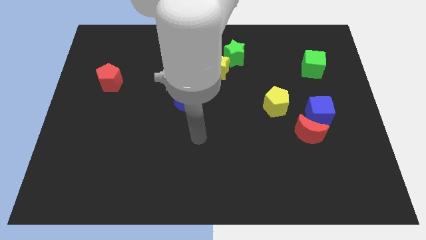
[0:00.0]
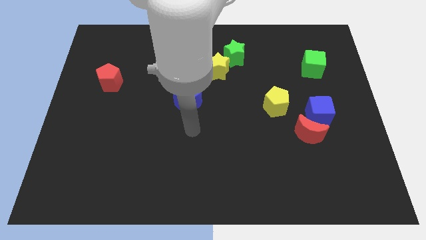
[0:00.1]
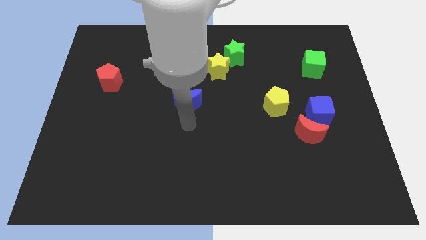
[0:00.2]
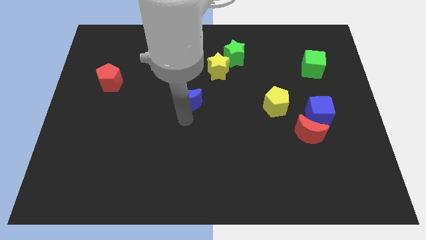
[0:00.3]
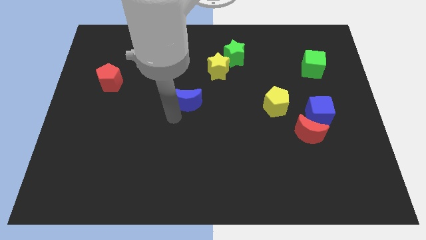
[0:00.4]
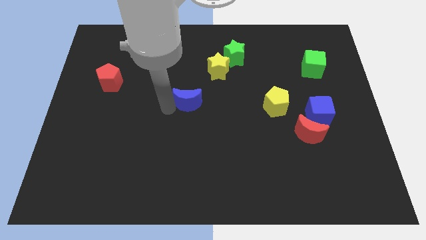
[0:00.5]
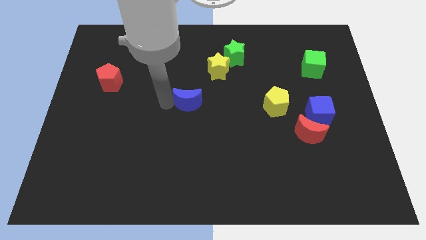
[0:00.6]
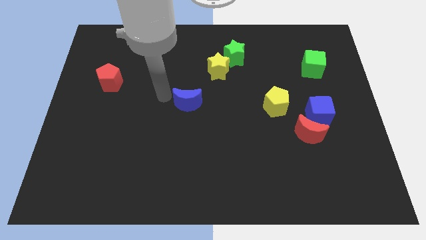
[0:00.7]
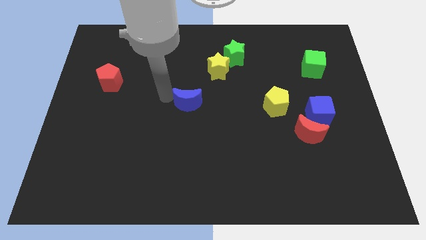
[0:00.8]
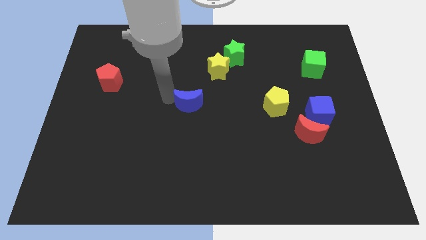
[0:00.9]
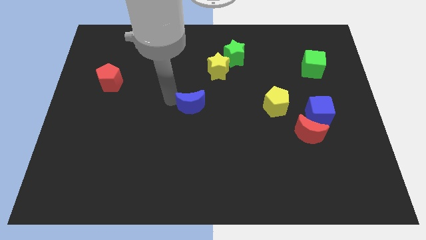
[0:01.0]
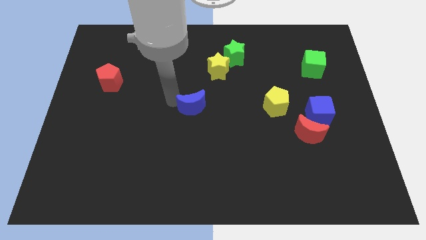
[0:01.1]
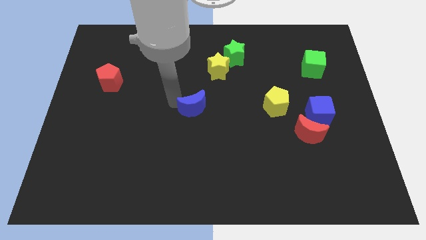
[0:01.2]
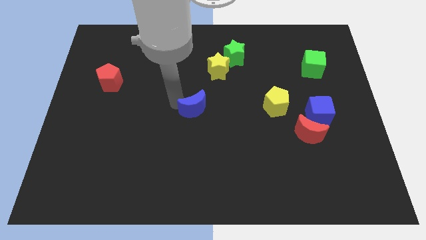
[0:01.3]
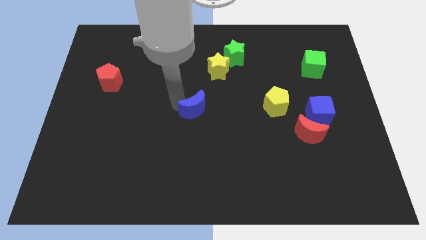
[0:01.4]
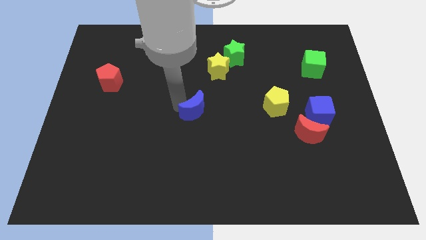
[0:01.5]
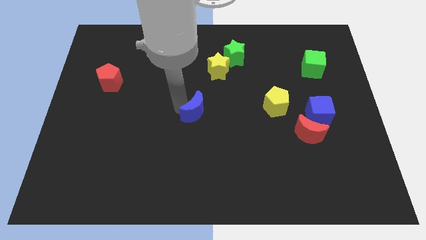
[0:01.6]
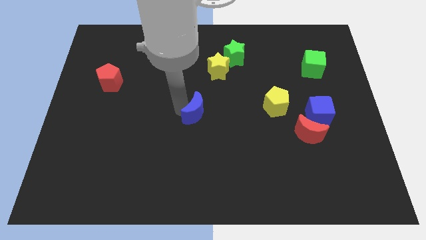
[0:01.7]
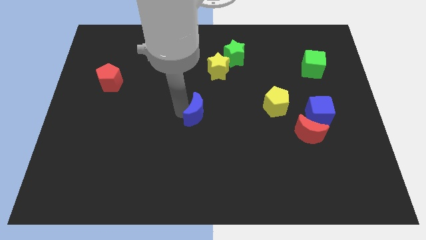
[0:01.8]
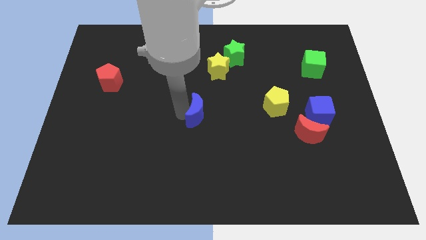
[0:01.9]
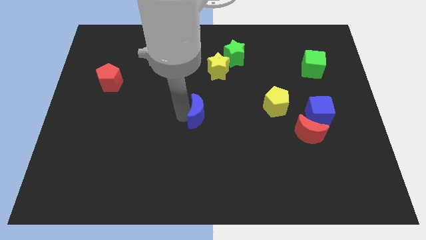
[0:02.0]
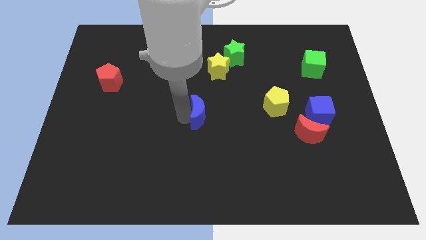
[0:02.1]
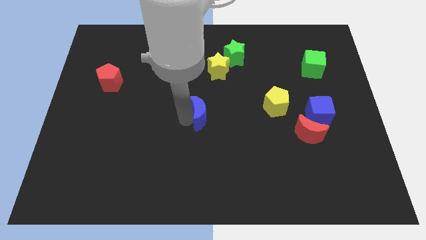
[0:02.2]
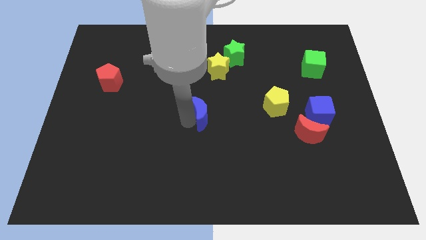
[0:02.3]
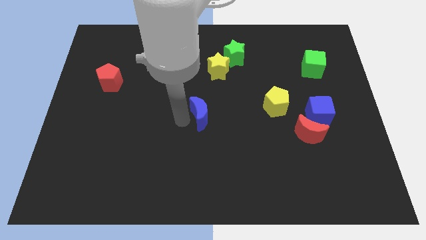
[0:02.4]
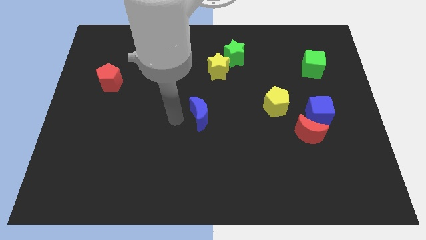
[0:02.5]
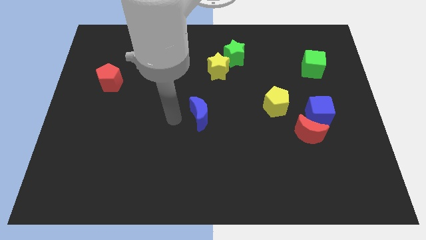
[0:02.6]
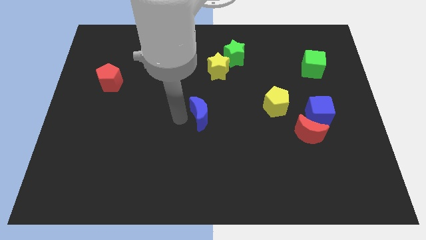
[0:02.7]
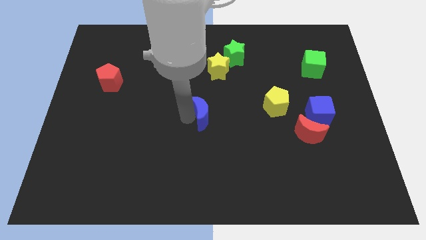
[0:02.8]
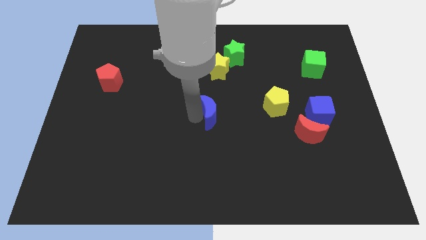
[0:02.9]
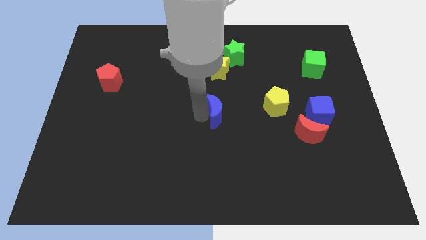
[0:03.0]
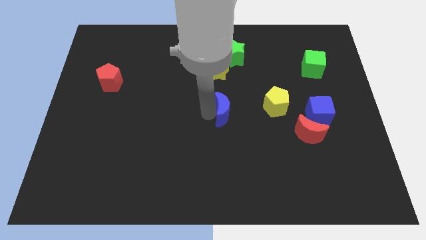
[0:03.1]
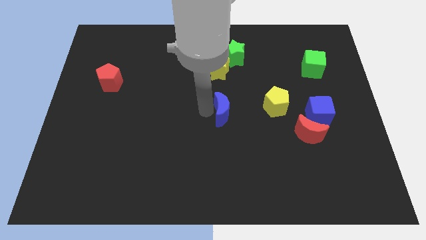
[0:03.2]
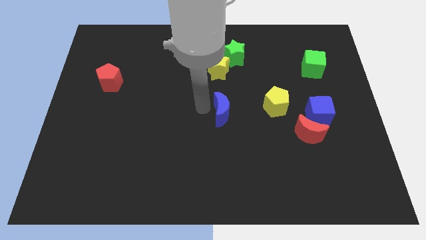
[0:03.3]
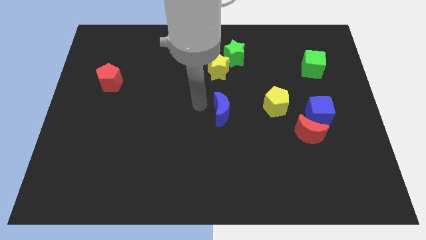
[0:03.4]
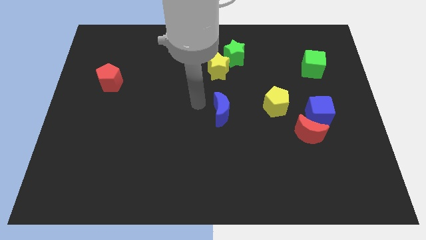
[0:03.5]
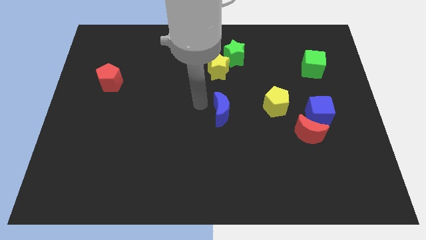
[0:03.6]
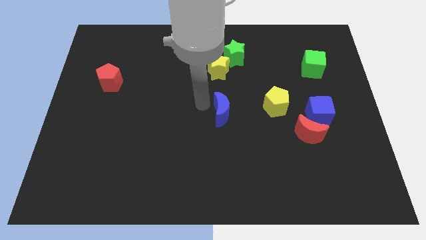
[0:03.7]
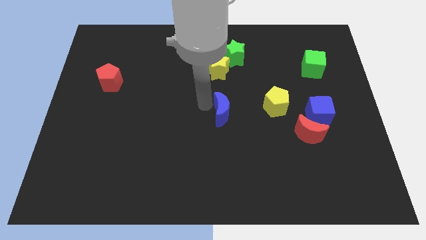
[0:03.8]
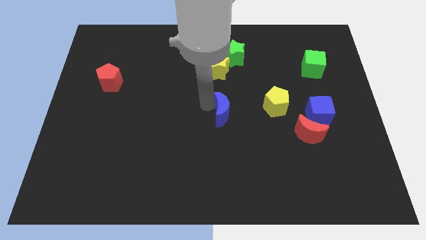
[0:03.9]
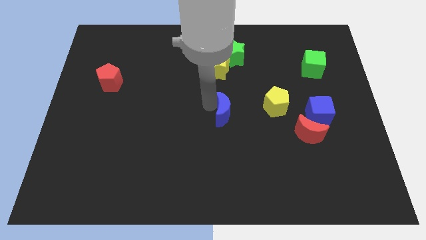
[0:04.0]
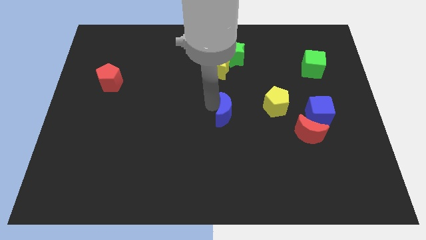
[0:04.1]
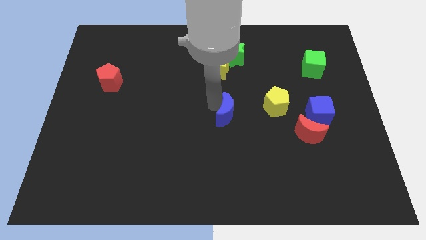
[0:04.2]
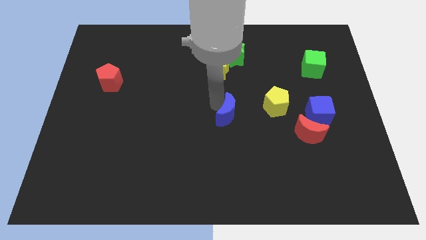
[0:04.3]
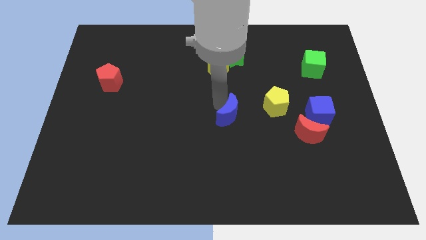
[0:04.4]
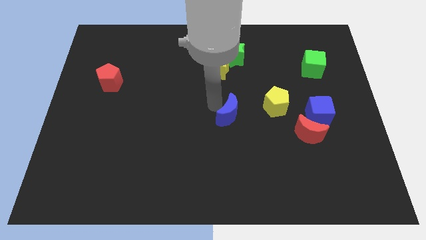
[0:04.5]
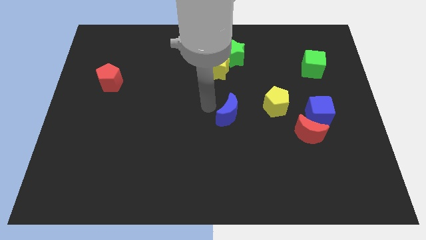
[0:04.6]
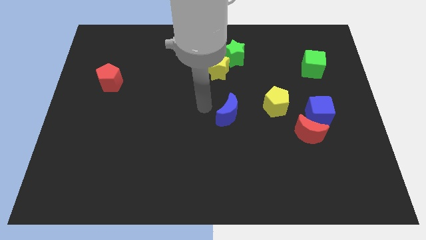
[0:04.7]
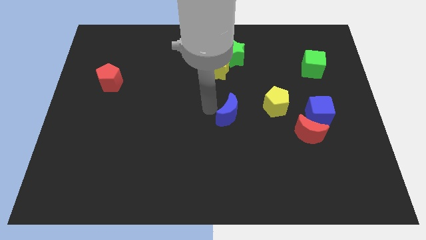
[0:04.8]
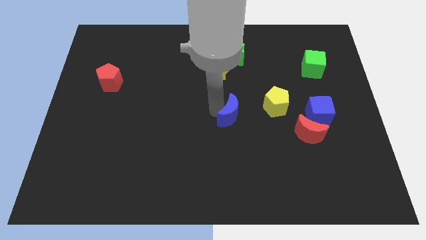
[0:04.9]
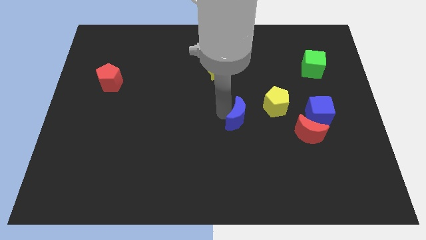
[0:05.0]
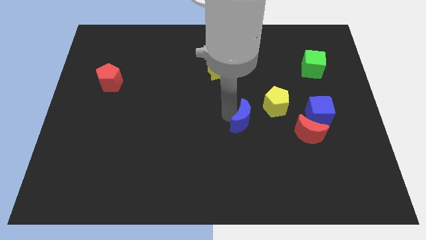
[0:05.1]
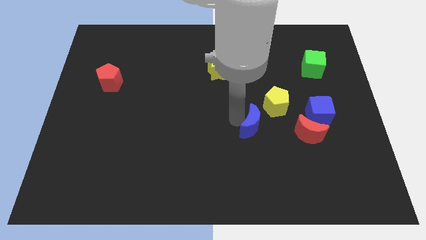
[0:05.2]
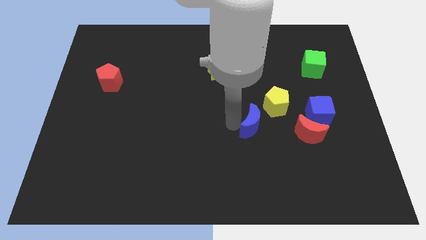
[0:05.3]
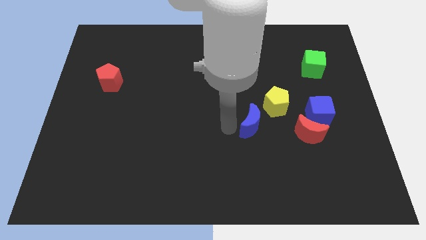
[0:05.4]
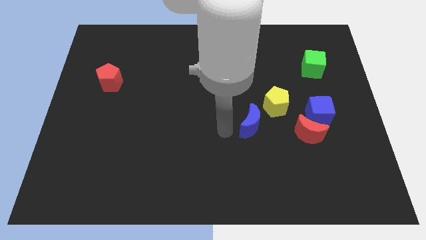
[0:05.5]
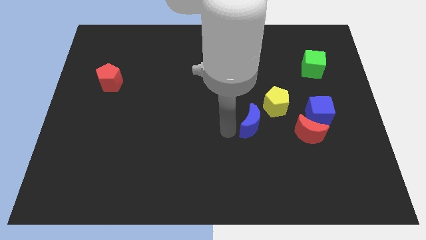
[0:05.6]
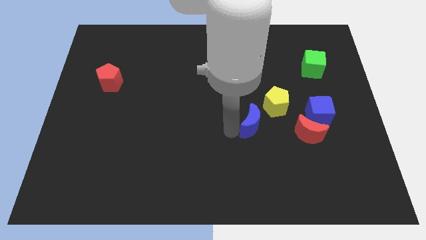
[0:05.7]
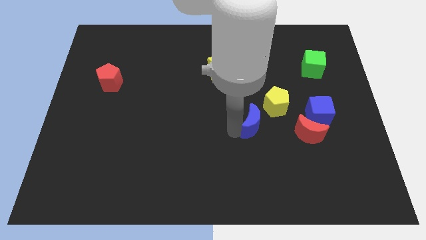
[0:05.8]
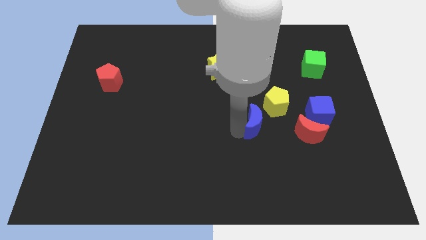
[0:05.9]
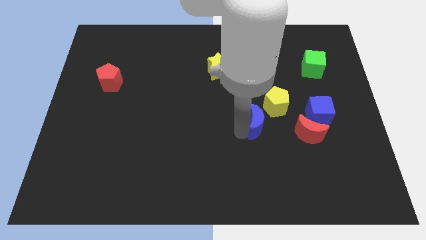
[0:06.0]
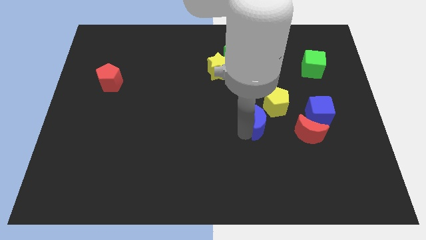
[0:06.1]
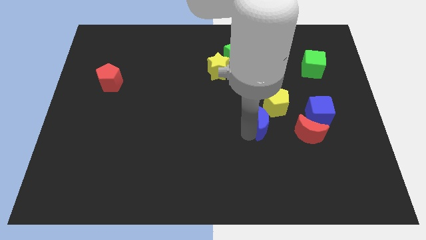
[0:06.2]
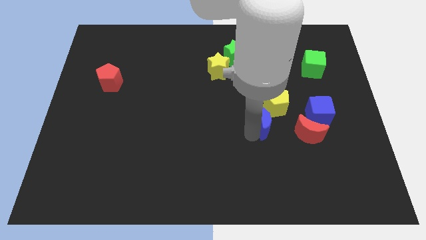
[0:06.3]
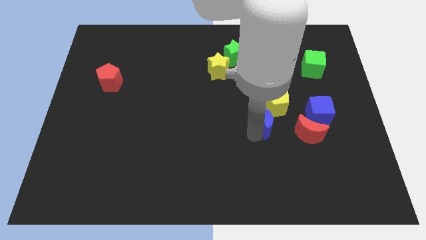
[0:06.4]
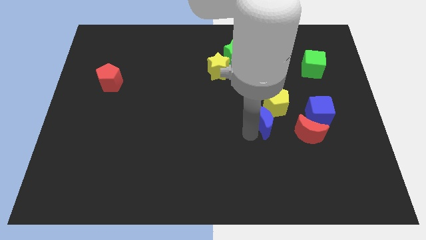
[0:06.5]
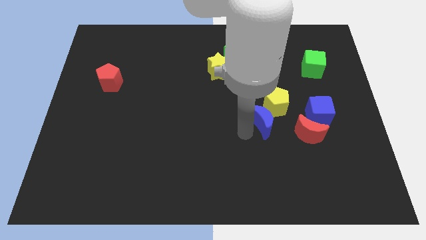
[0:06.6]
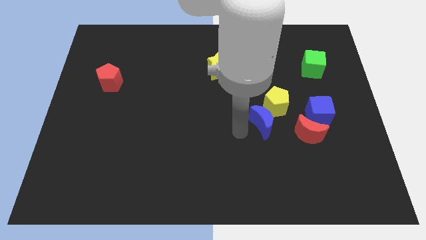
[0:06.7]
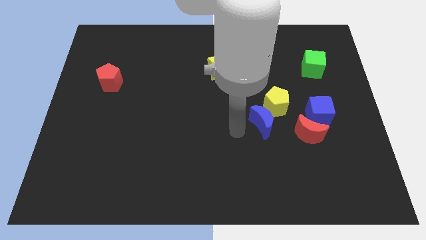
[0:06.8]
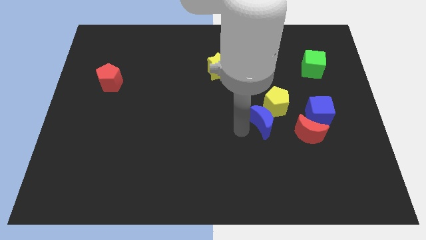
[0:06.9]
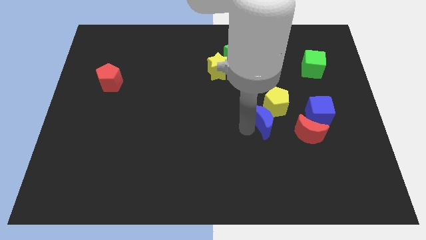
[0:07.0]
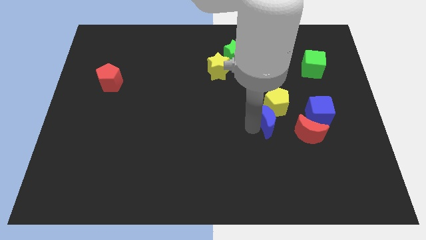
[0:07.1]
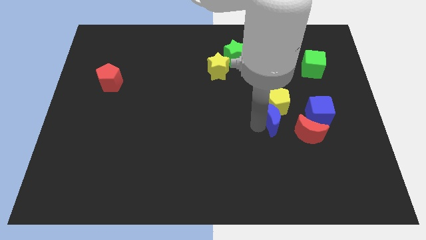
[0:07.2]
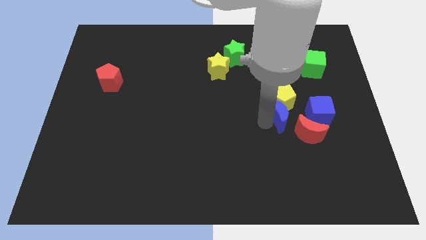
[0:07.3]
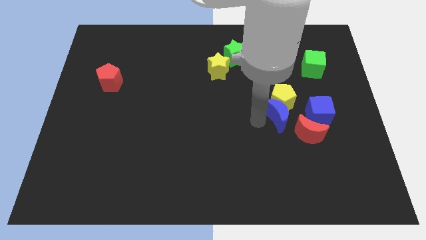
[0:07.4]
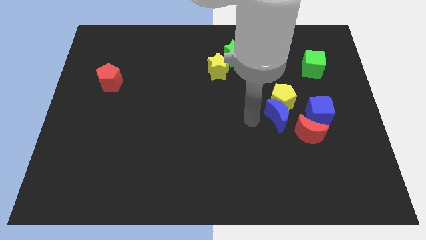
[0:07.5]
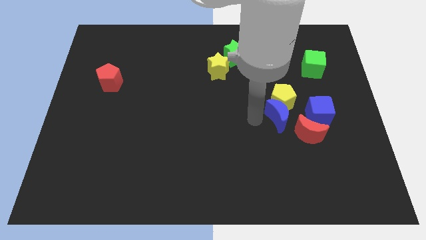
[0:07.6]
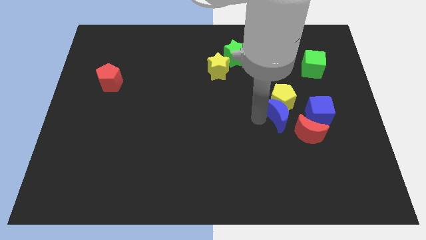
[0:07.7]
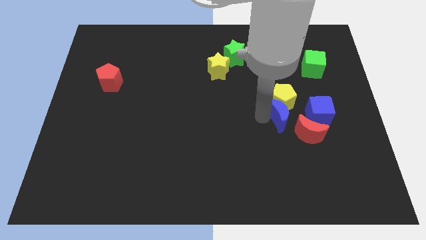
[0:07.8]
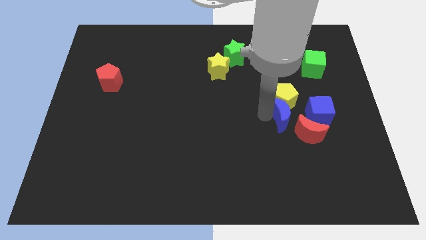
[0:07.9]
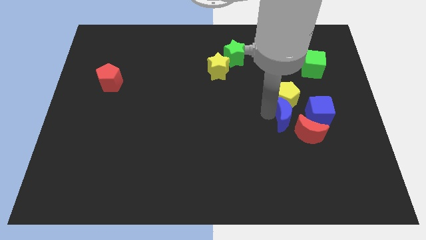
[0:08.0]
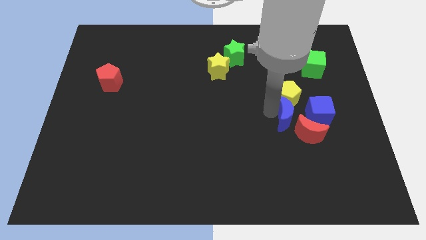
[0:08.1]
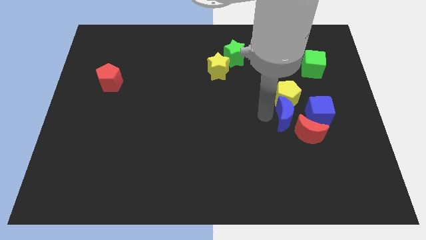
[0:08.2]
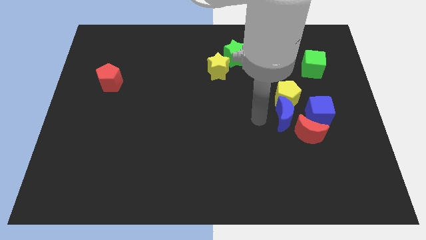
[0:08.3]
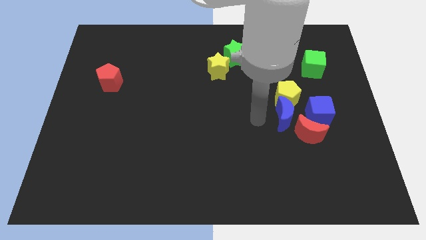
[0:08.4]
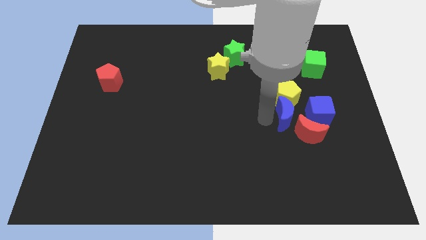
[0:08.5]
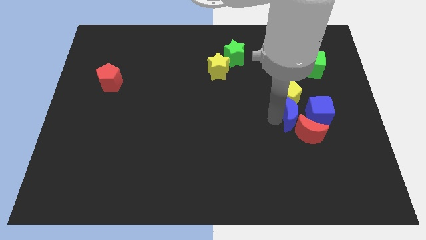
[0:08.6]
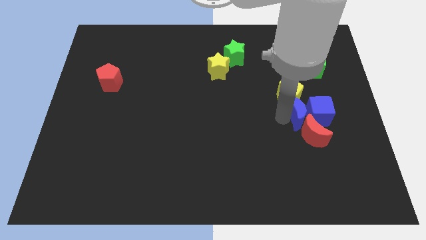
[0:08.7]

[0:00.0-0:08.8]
push the blue moon towards the blue cube
